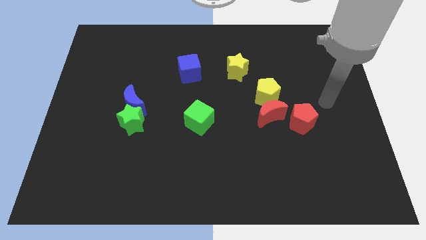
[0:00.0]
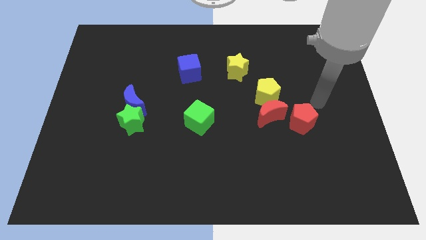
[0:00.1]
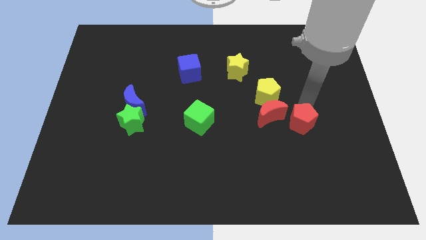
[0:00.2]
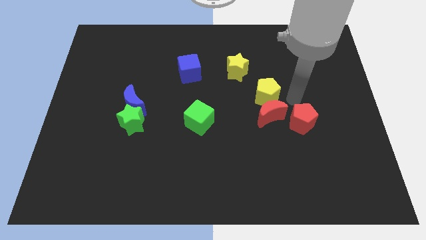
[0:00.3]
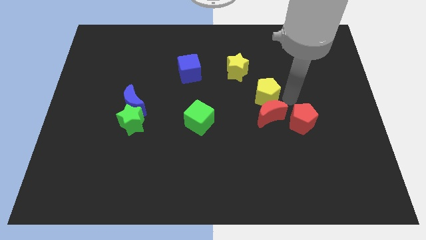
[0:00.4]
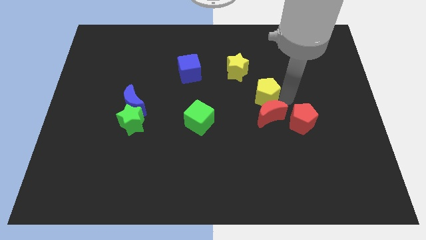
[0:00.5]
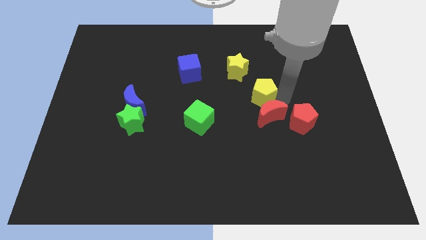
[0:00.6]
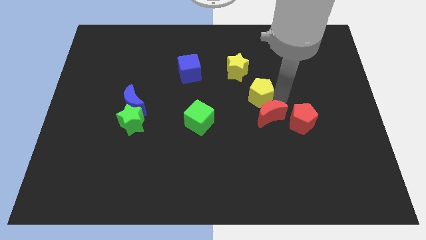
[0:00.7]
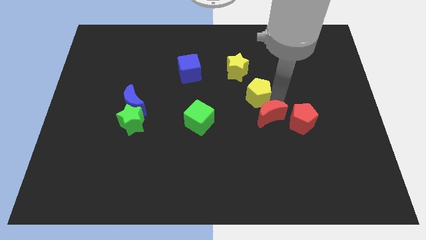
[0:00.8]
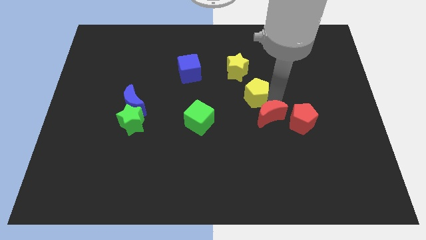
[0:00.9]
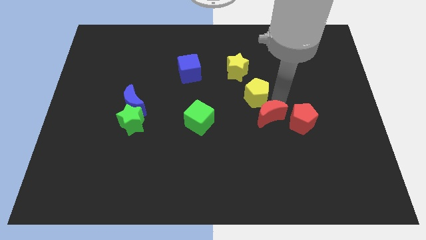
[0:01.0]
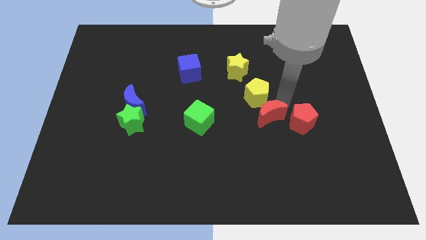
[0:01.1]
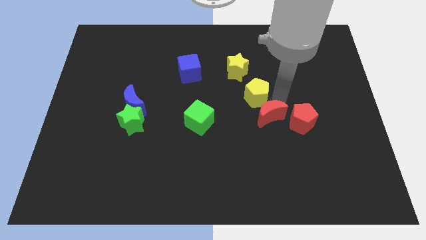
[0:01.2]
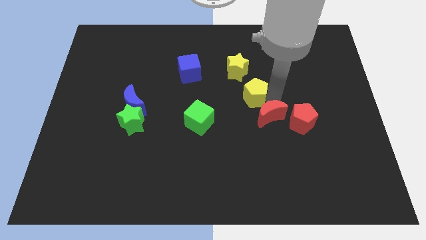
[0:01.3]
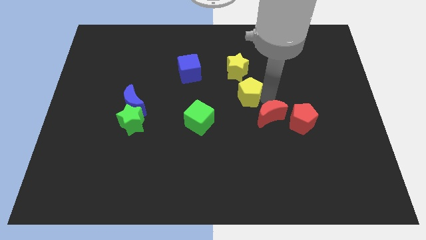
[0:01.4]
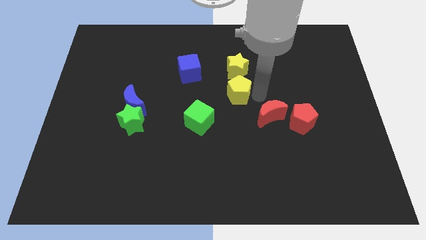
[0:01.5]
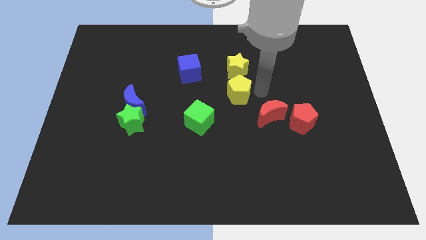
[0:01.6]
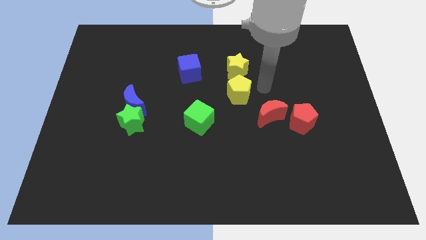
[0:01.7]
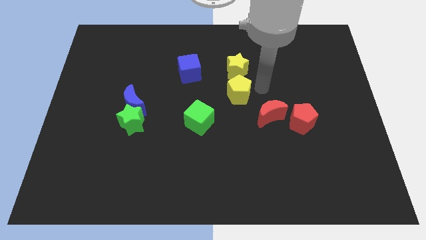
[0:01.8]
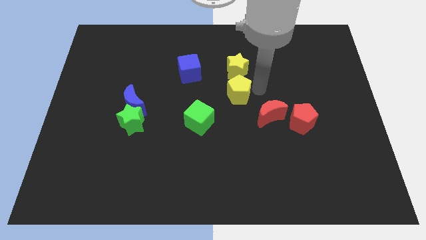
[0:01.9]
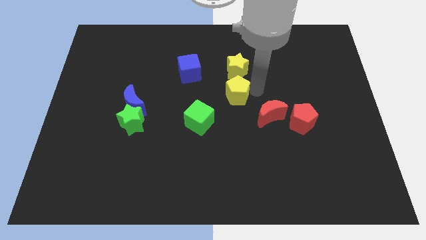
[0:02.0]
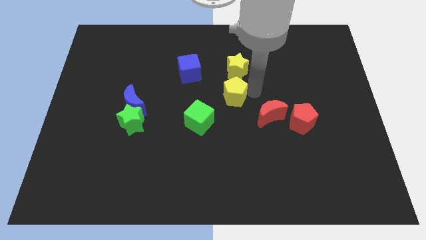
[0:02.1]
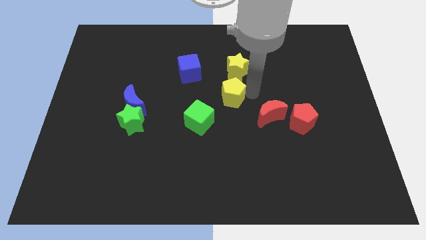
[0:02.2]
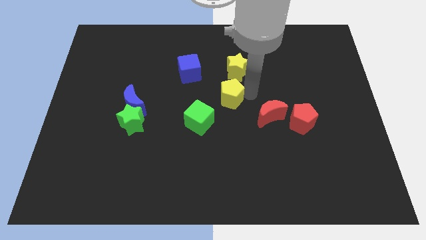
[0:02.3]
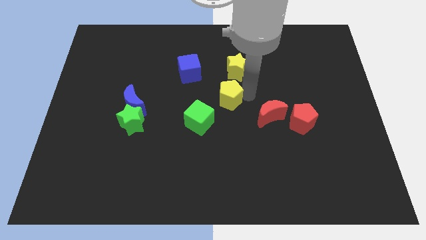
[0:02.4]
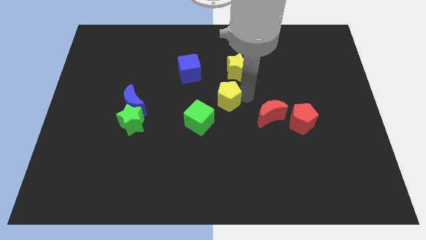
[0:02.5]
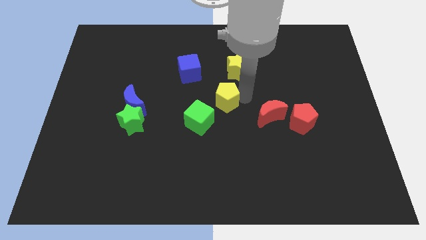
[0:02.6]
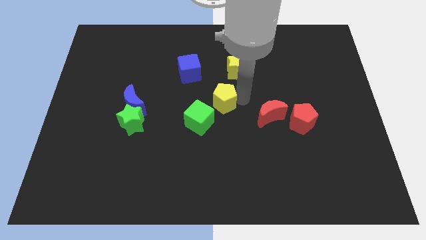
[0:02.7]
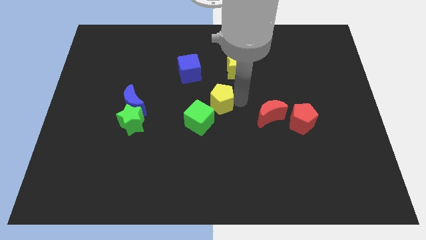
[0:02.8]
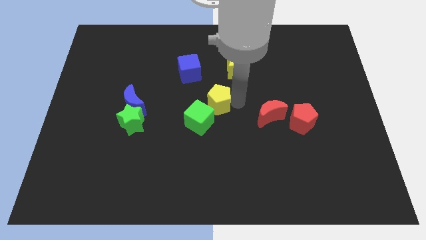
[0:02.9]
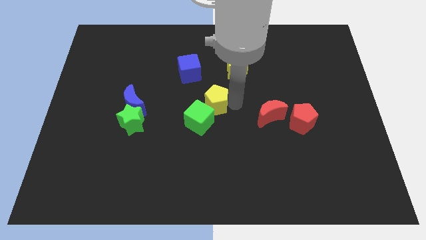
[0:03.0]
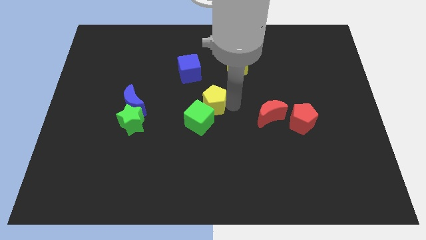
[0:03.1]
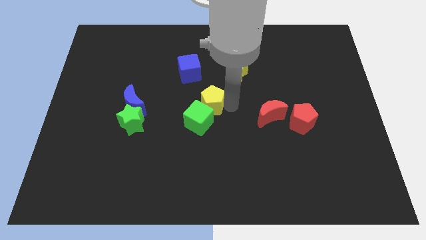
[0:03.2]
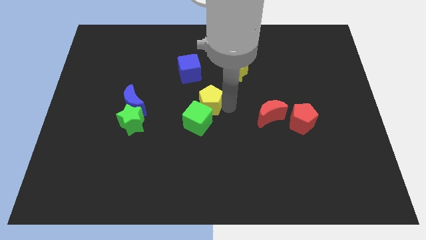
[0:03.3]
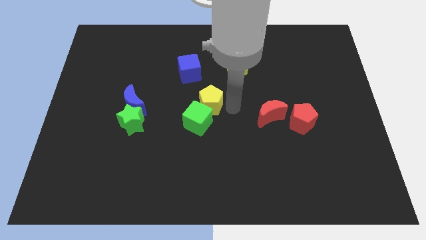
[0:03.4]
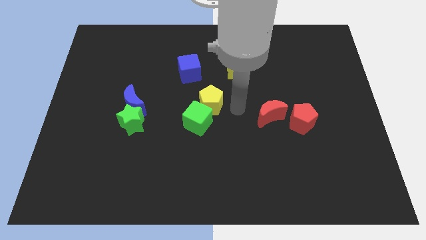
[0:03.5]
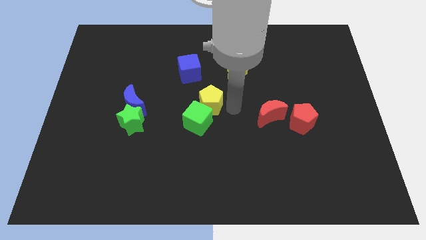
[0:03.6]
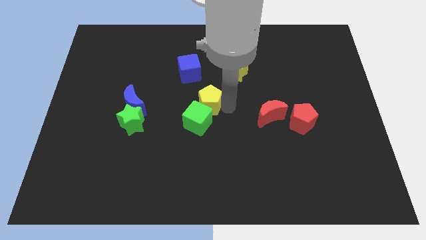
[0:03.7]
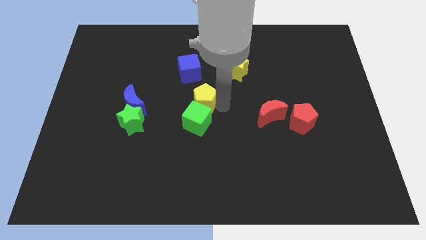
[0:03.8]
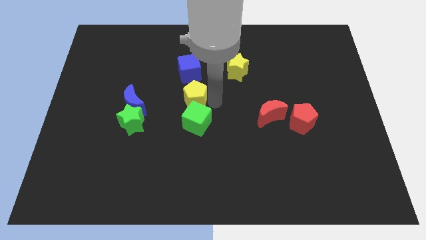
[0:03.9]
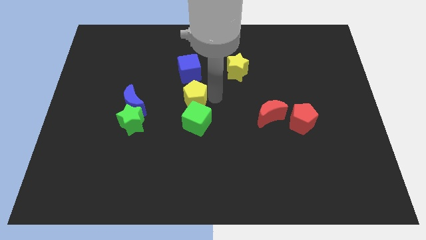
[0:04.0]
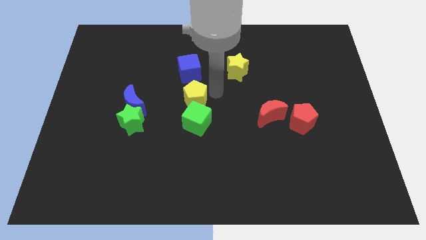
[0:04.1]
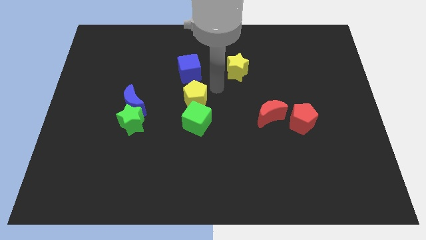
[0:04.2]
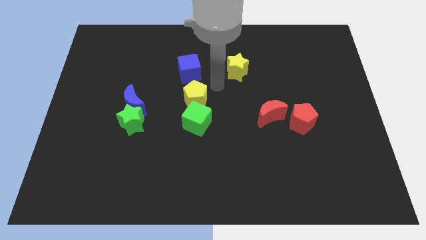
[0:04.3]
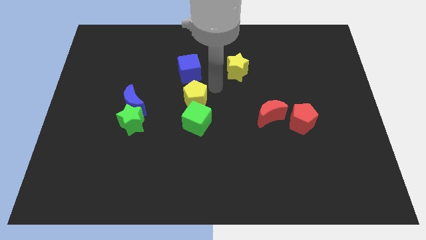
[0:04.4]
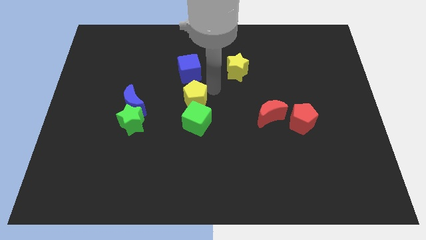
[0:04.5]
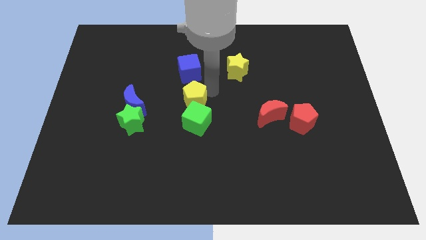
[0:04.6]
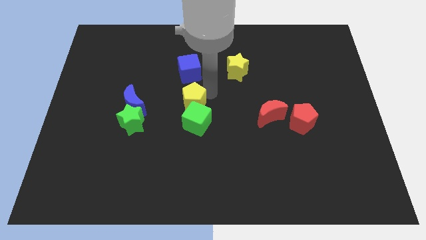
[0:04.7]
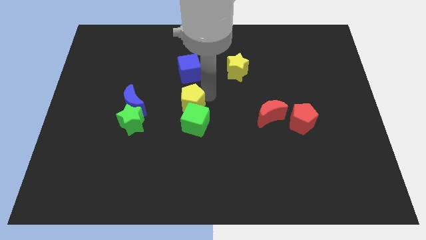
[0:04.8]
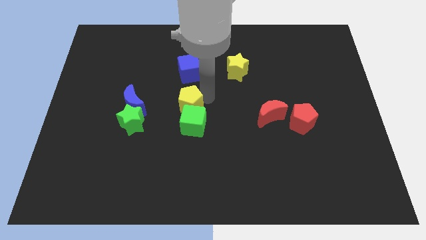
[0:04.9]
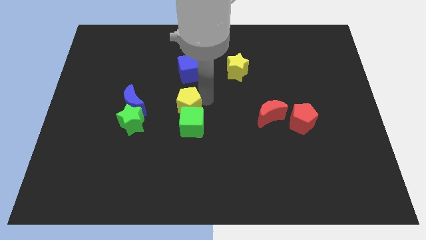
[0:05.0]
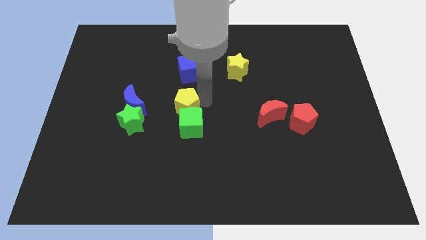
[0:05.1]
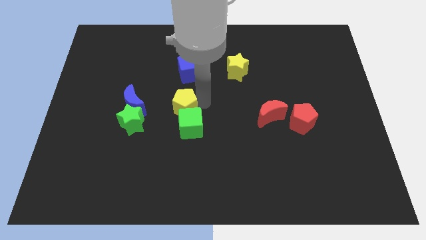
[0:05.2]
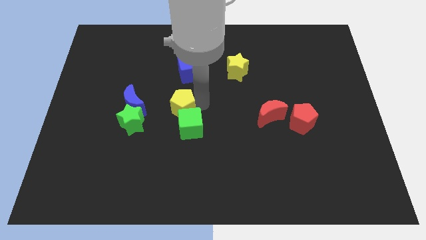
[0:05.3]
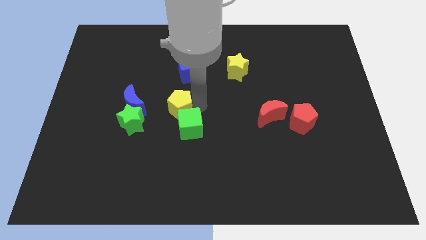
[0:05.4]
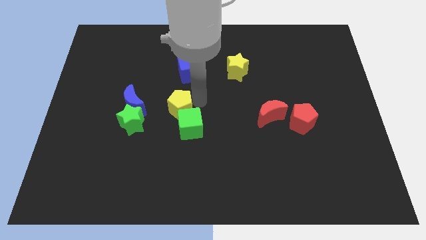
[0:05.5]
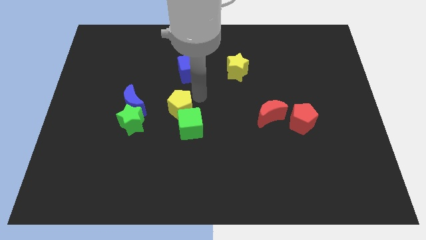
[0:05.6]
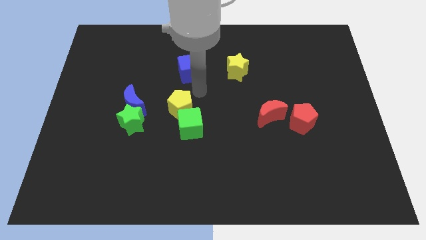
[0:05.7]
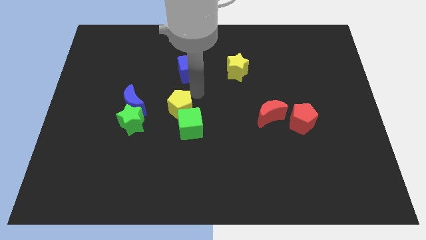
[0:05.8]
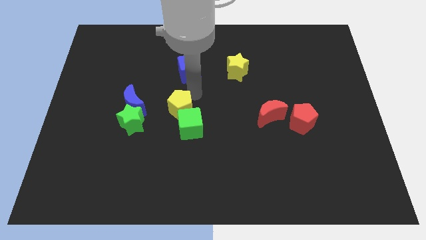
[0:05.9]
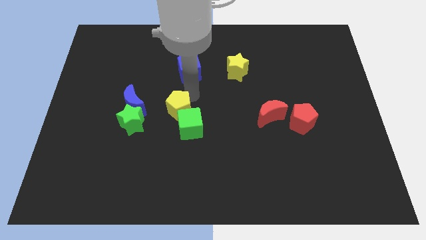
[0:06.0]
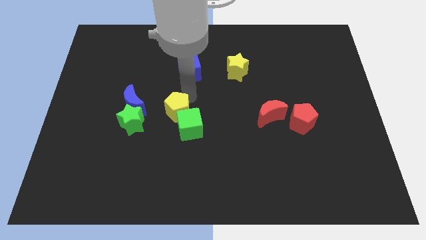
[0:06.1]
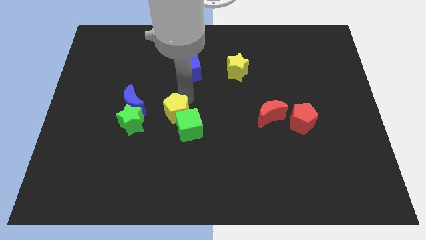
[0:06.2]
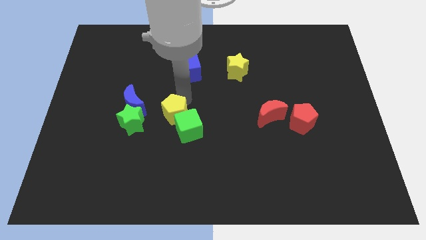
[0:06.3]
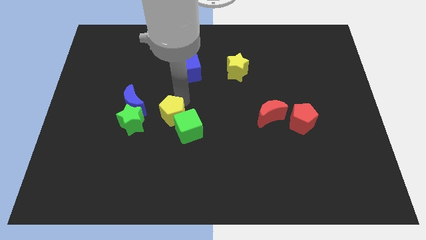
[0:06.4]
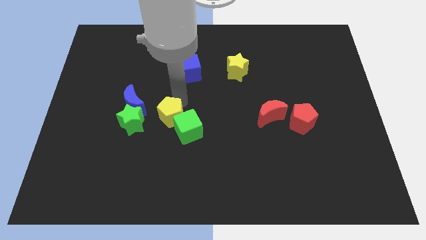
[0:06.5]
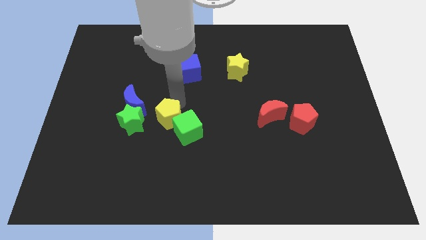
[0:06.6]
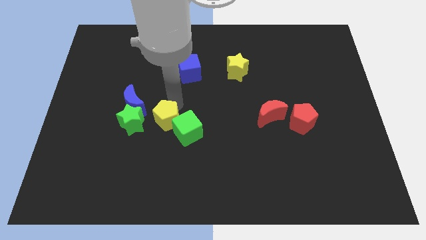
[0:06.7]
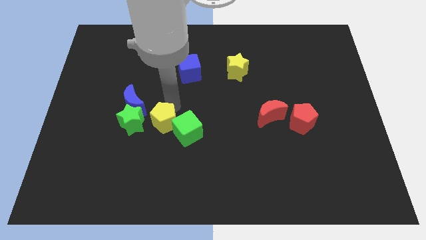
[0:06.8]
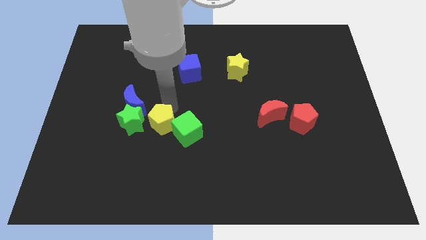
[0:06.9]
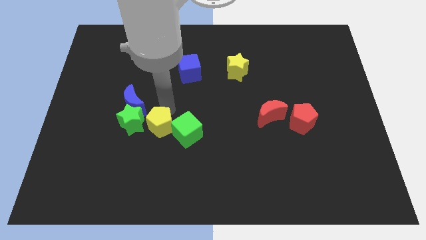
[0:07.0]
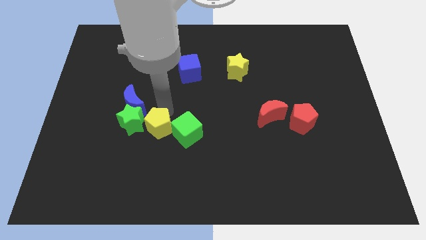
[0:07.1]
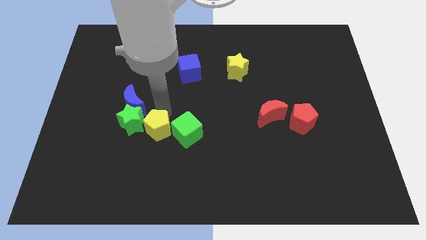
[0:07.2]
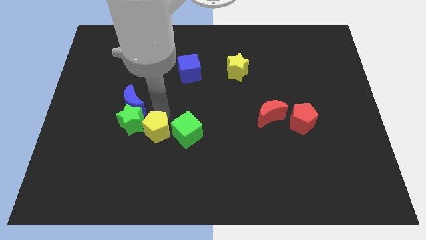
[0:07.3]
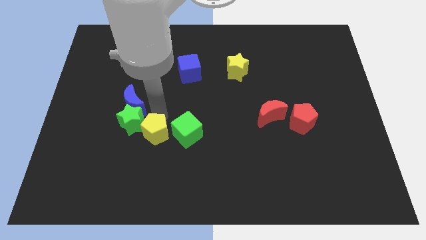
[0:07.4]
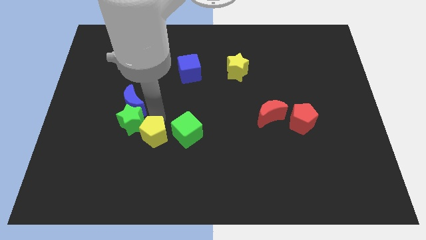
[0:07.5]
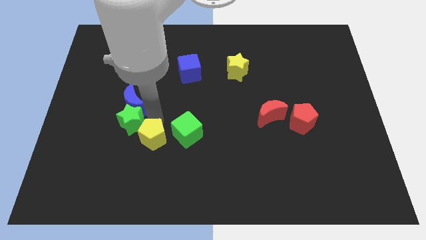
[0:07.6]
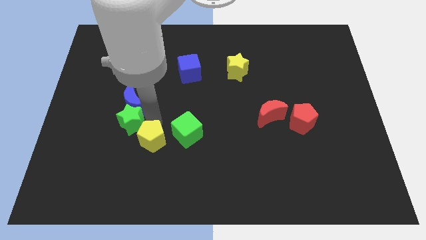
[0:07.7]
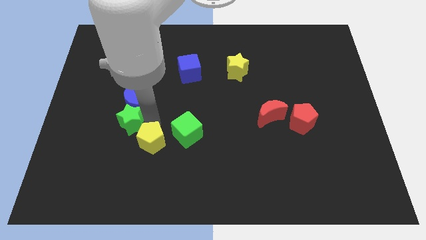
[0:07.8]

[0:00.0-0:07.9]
slide the yellow pentagon below the green star
